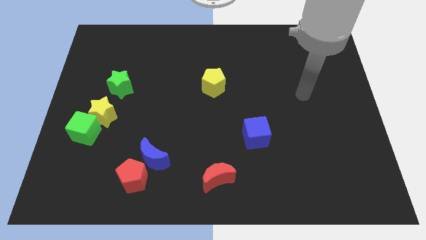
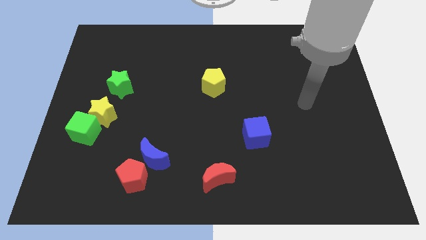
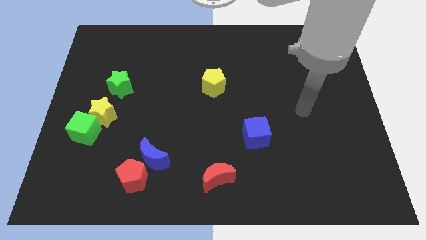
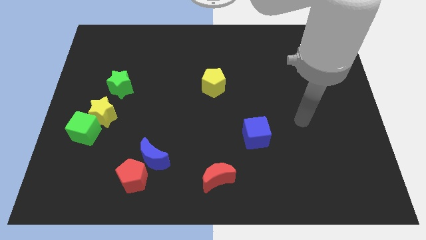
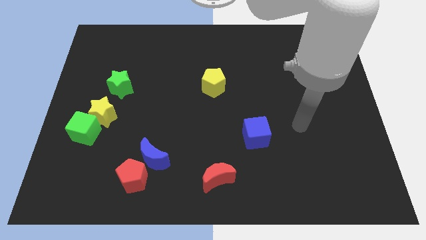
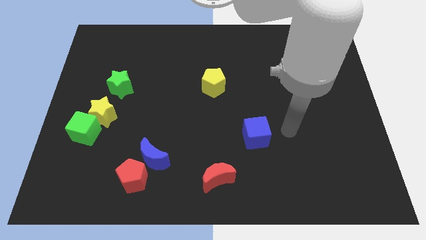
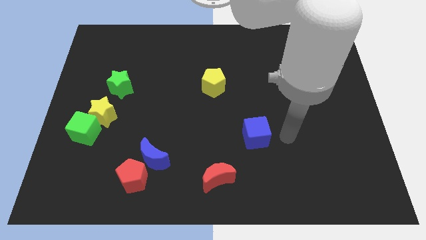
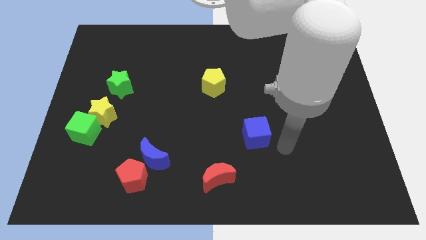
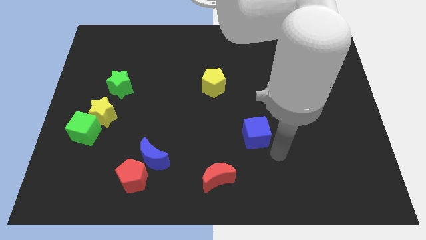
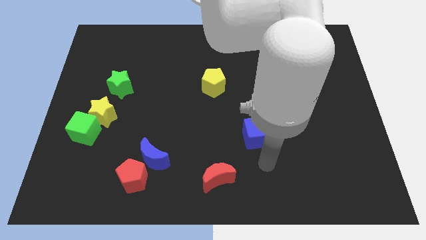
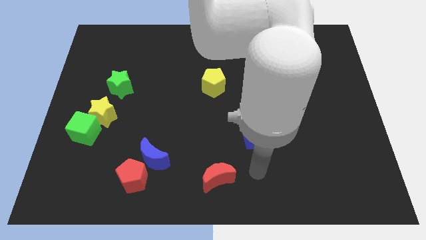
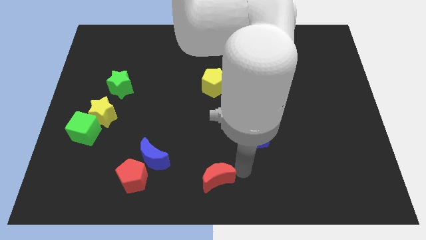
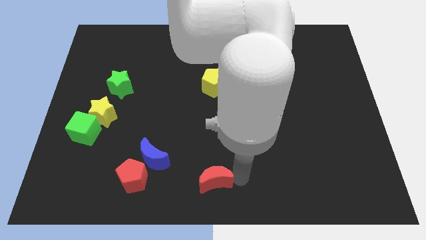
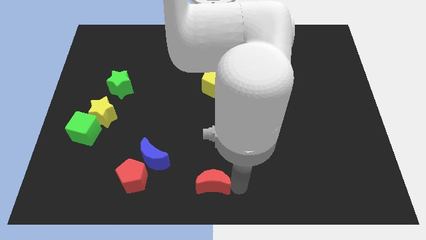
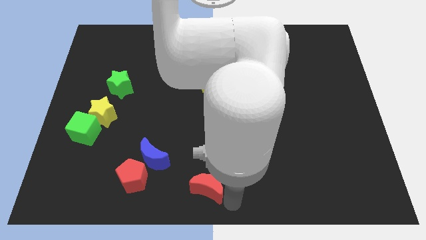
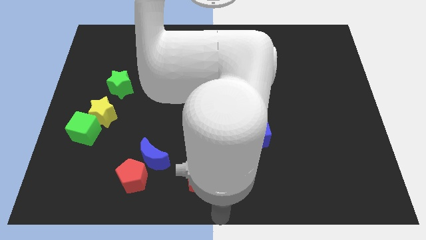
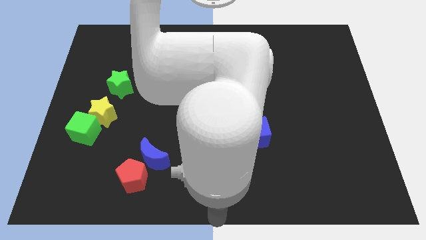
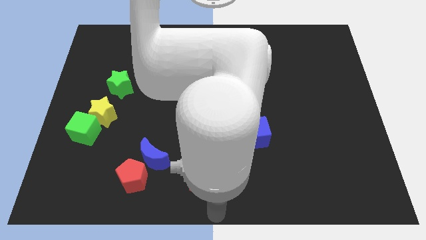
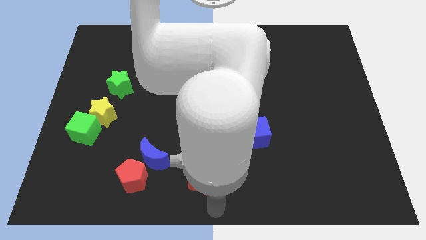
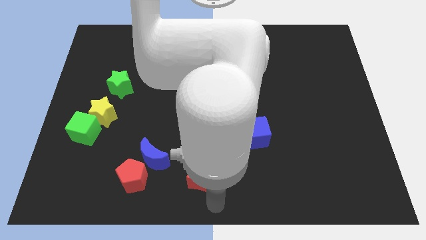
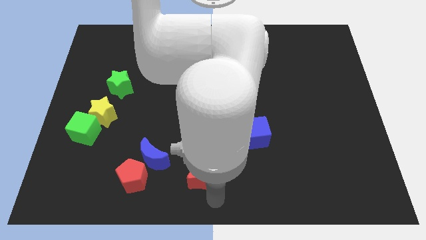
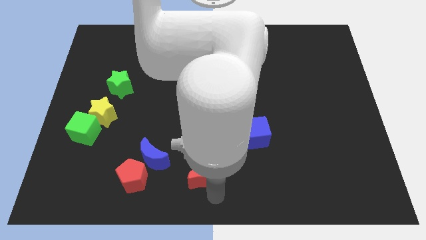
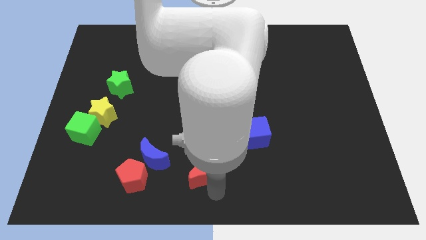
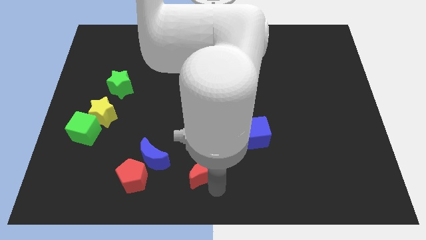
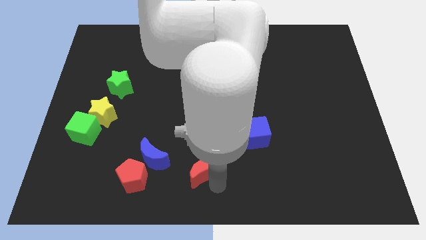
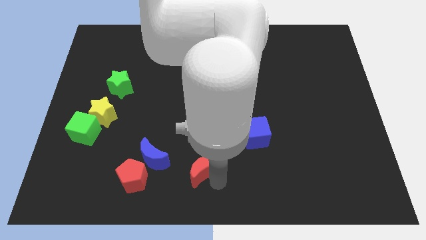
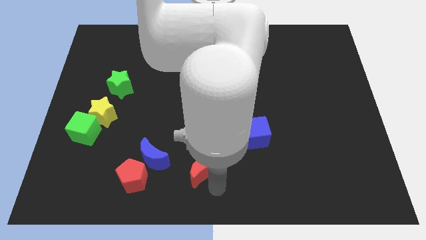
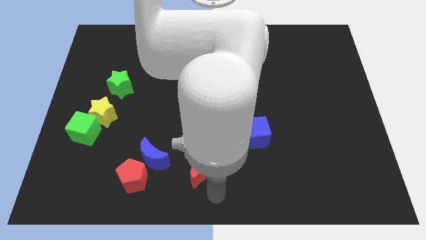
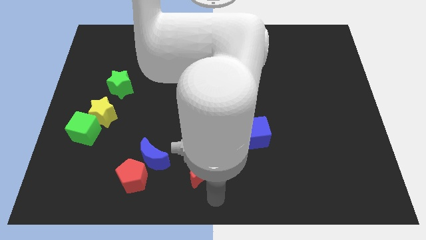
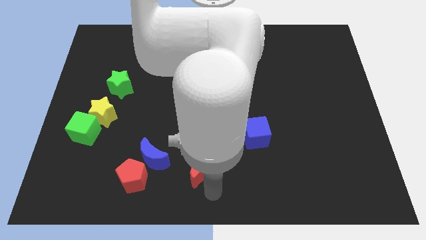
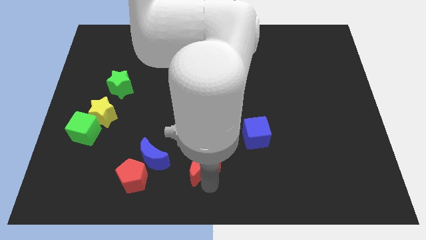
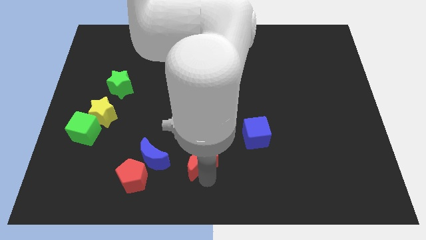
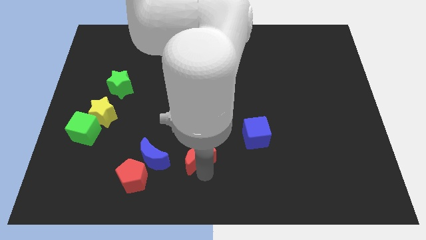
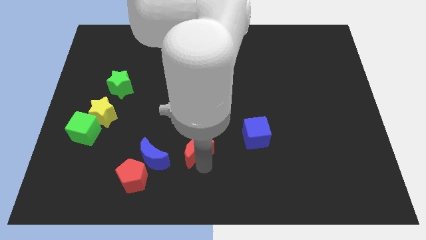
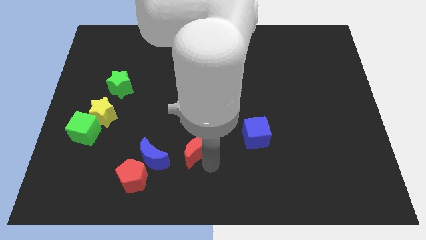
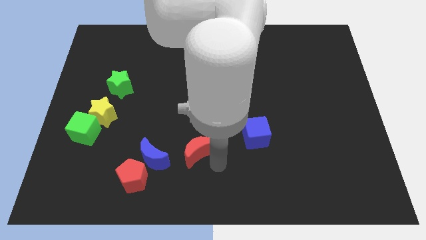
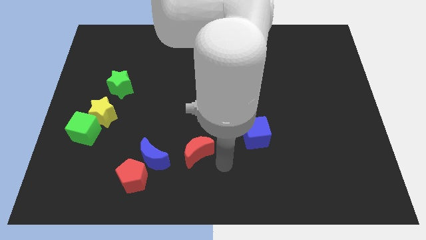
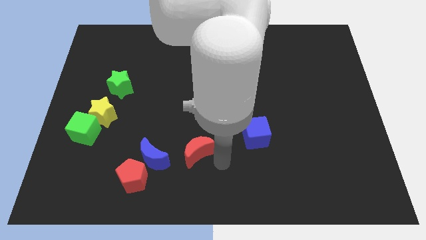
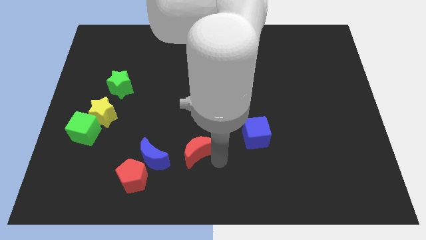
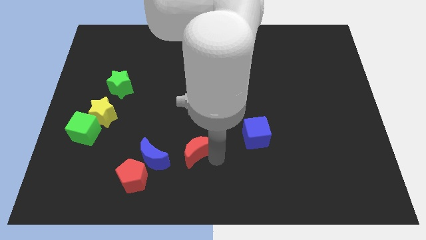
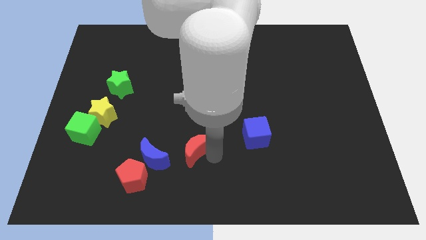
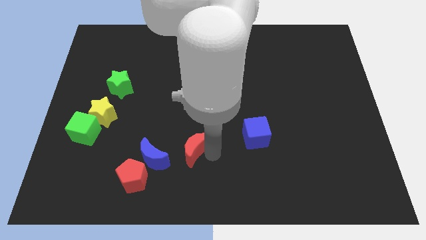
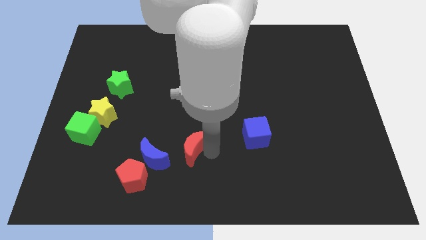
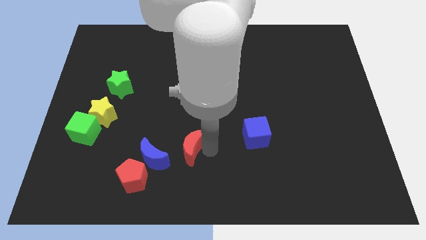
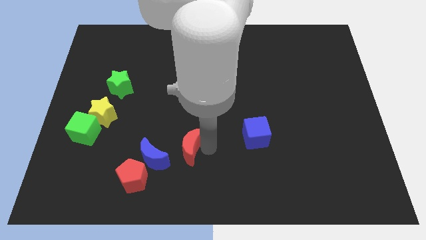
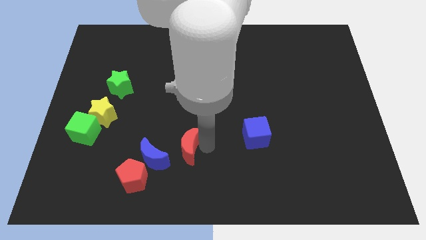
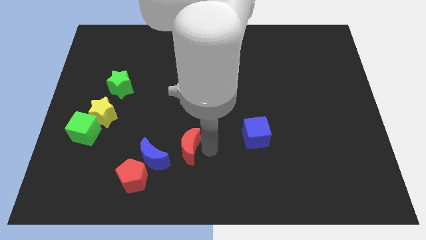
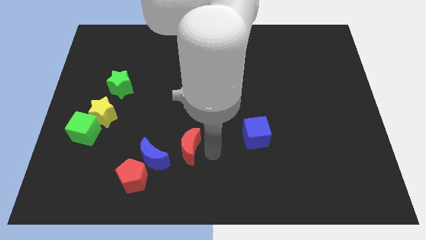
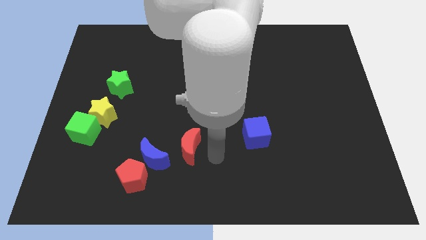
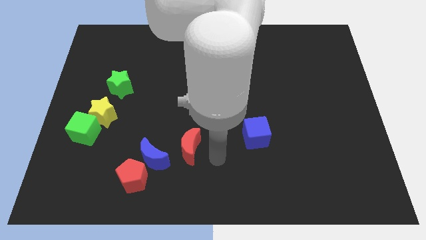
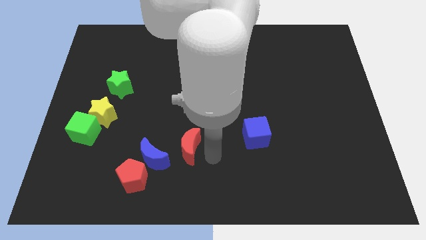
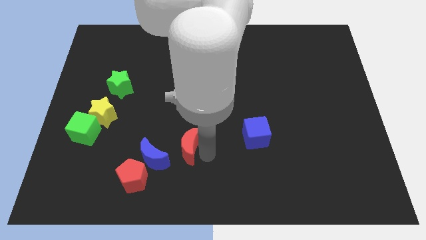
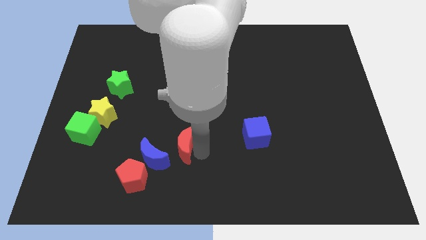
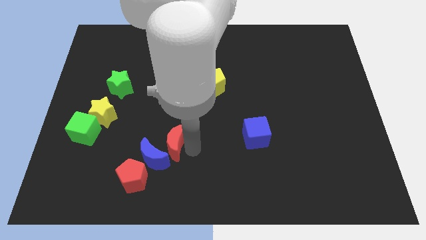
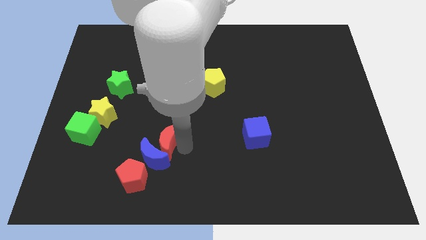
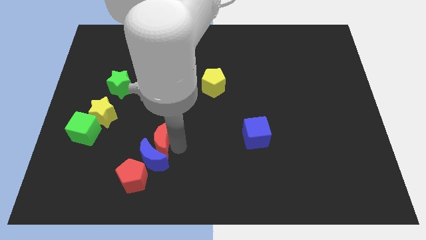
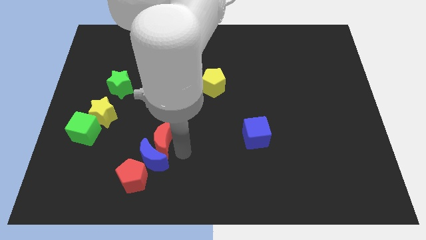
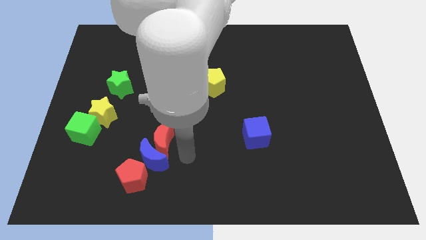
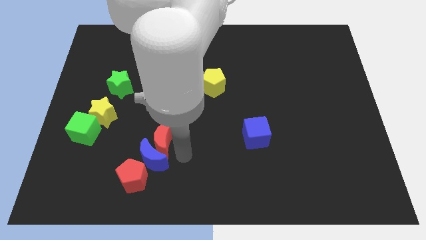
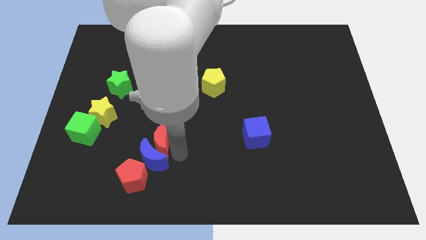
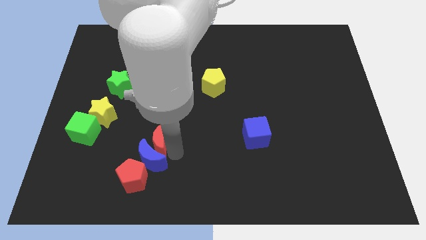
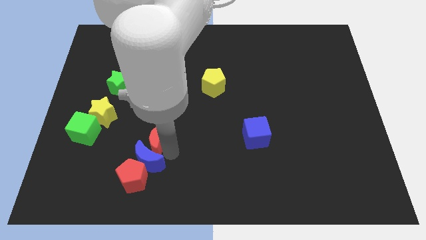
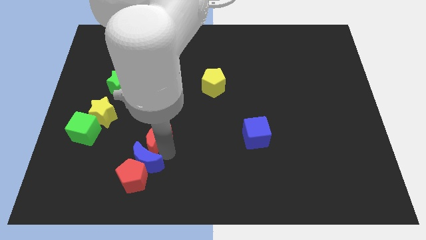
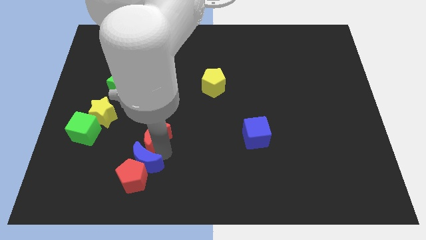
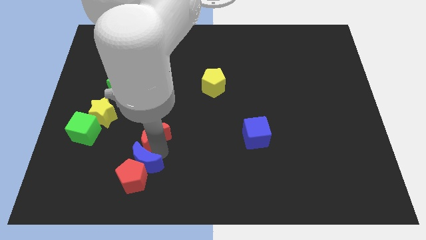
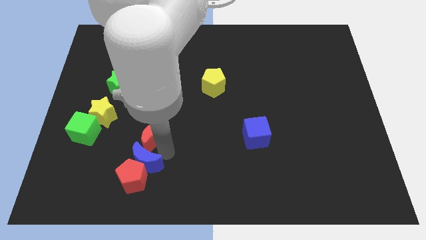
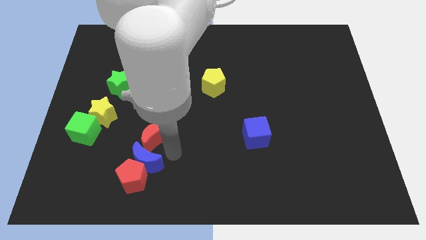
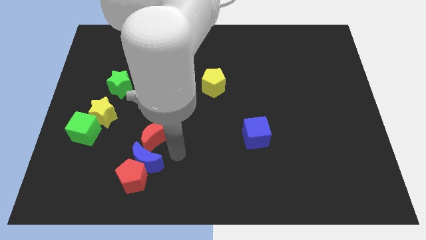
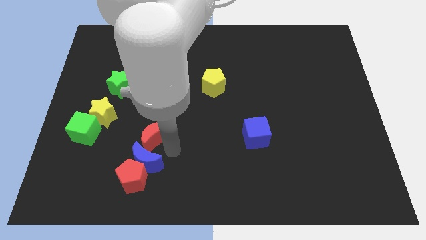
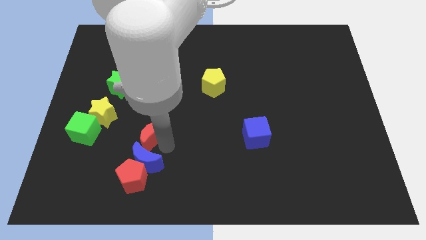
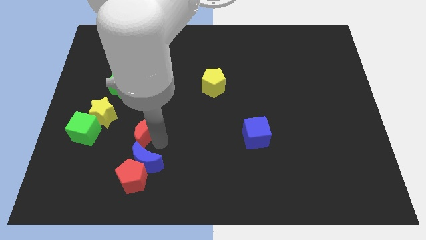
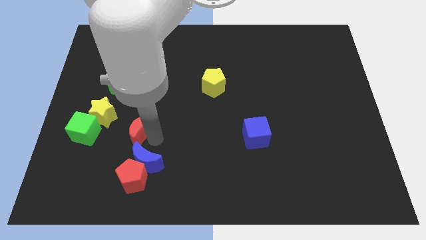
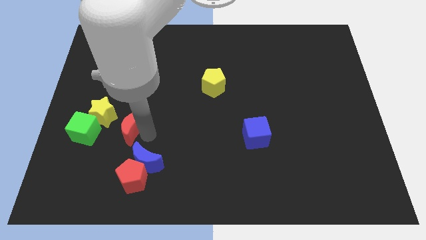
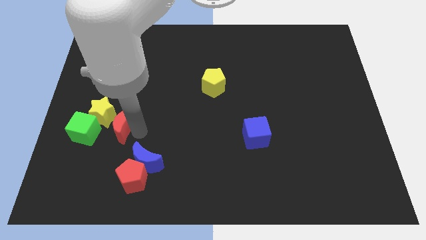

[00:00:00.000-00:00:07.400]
put the red moon towards the yellow star

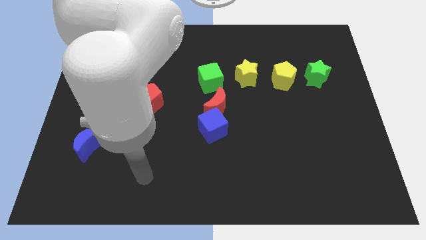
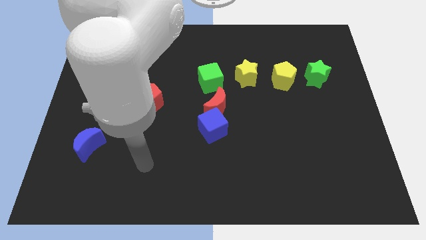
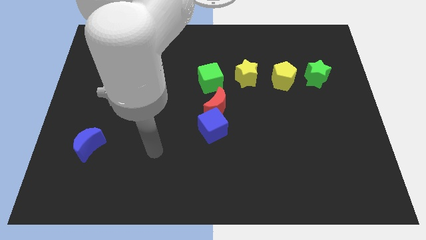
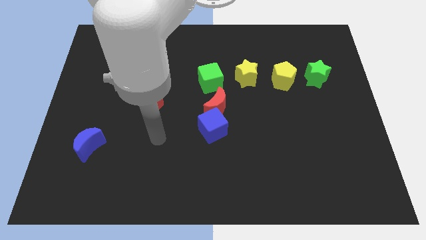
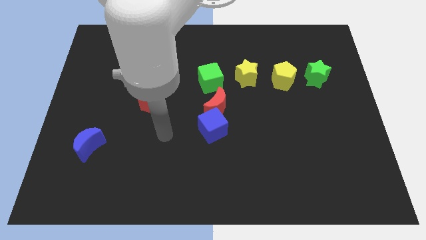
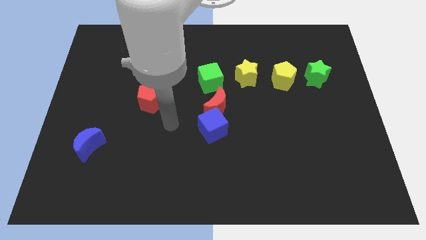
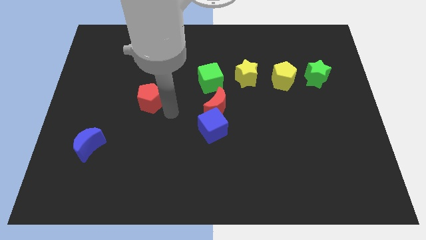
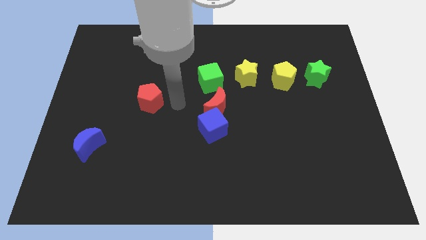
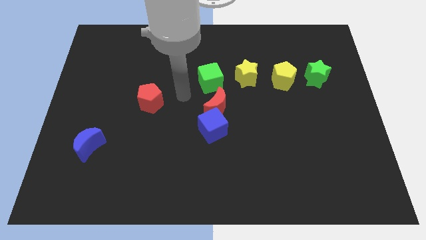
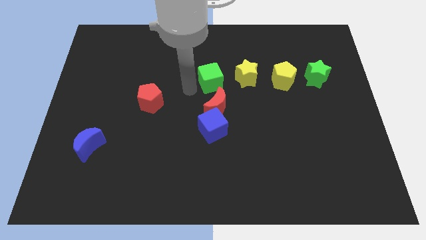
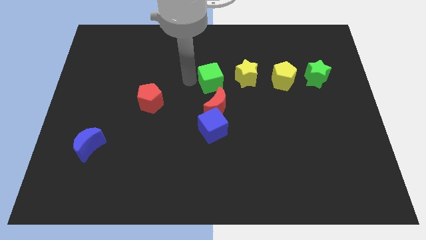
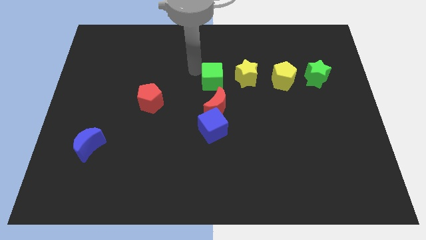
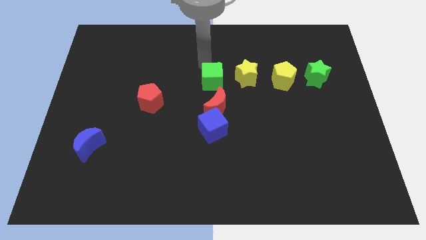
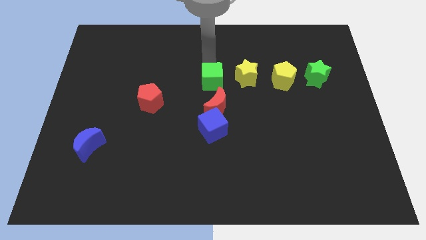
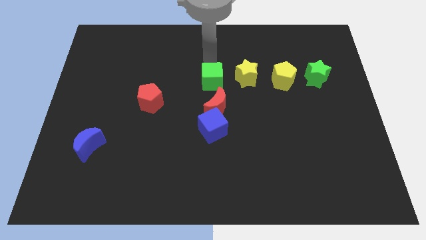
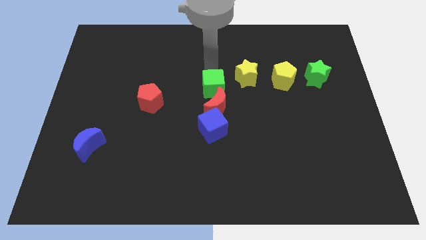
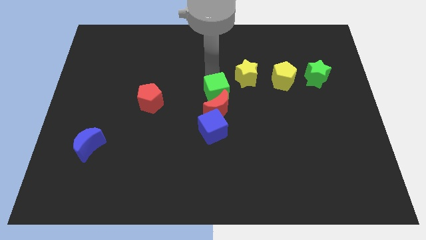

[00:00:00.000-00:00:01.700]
move the green cube towards the red moon
